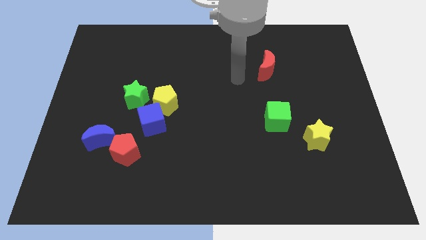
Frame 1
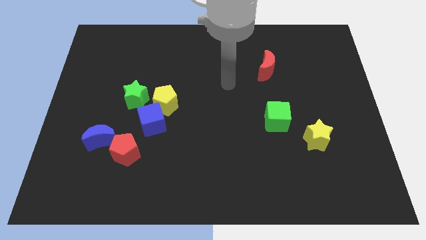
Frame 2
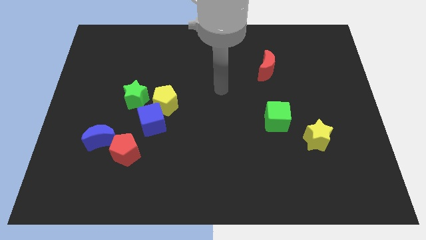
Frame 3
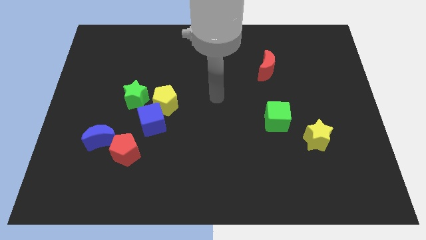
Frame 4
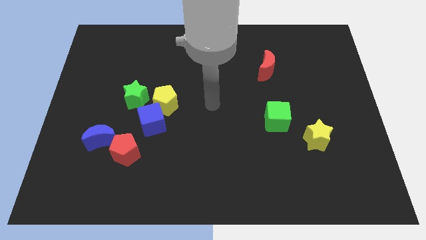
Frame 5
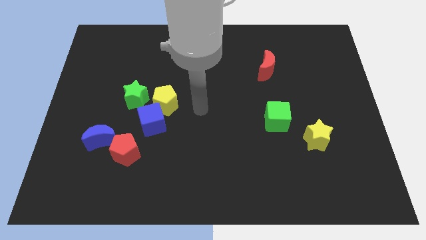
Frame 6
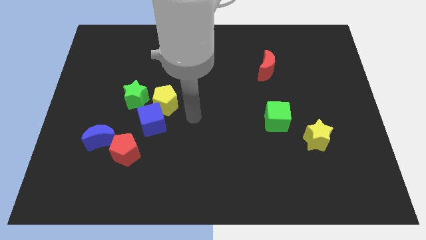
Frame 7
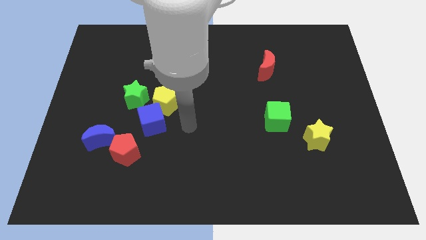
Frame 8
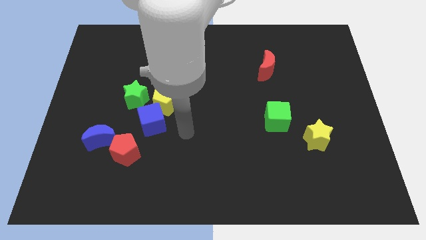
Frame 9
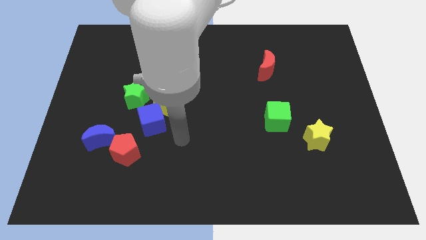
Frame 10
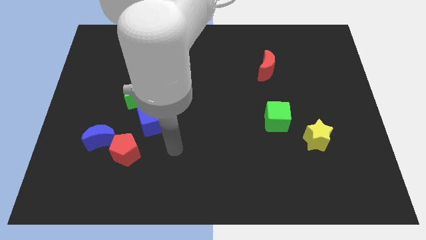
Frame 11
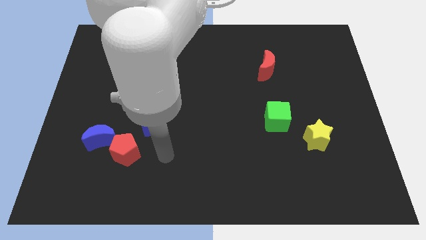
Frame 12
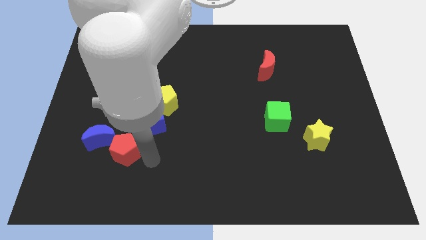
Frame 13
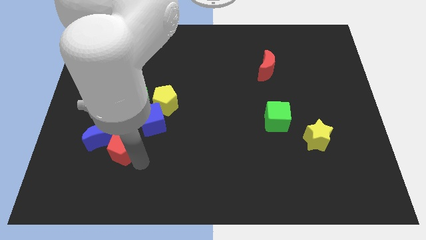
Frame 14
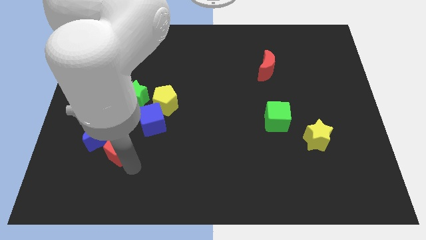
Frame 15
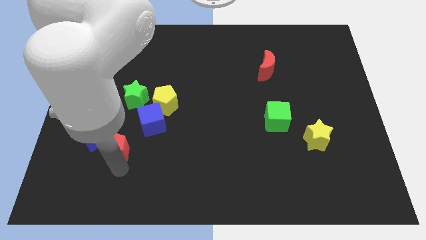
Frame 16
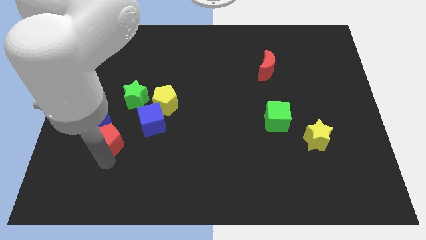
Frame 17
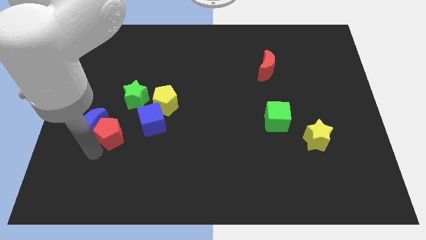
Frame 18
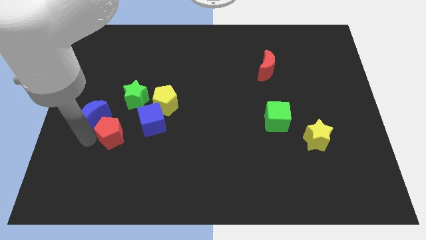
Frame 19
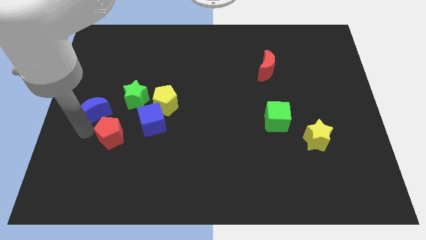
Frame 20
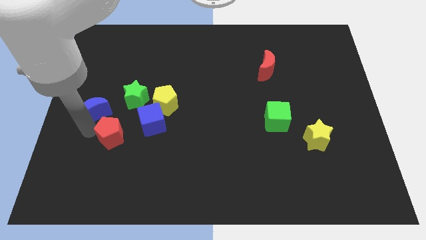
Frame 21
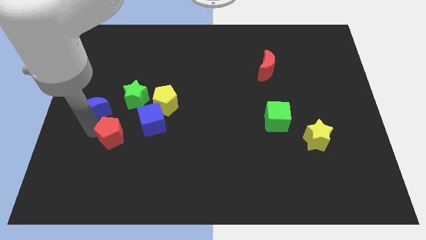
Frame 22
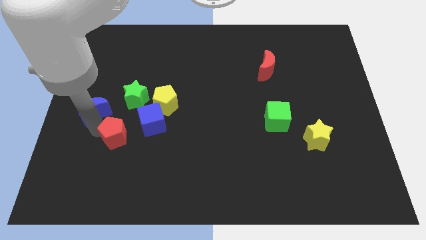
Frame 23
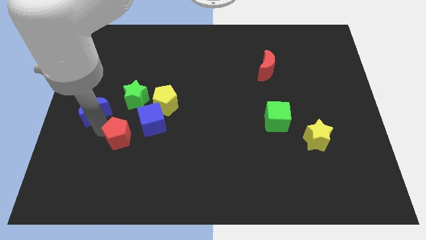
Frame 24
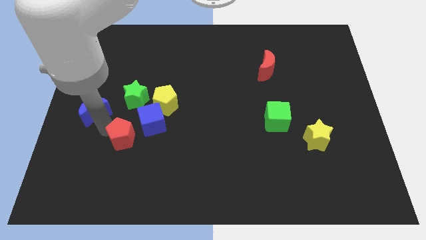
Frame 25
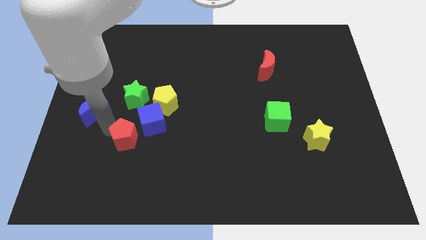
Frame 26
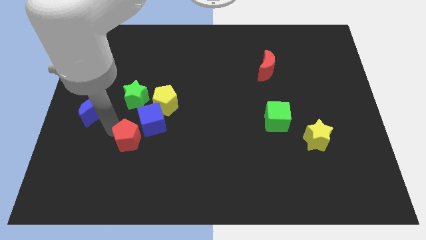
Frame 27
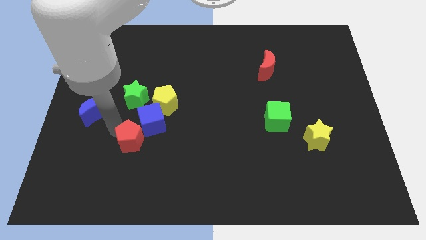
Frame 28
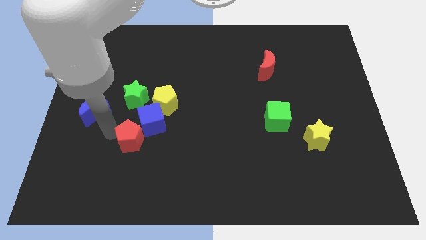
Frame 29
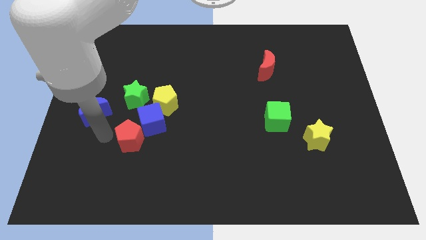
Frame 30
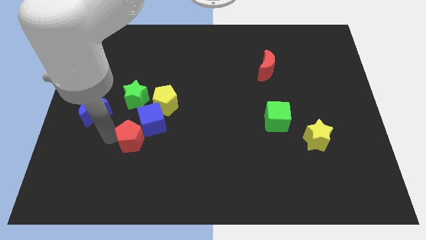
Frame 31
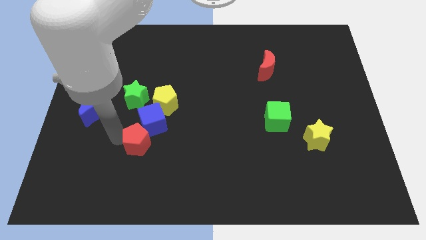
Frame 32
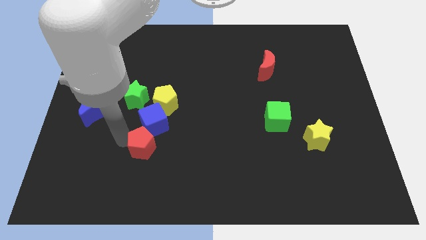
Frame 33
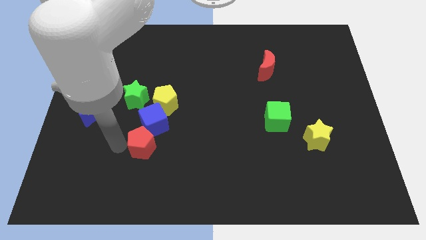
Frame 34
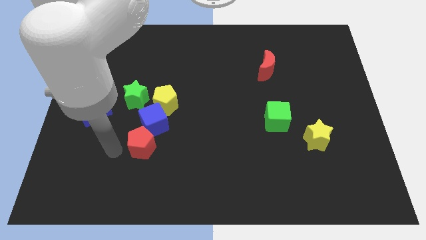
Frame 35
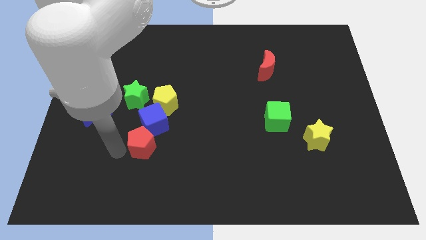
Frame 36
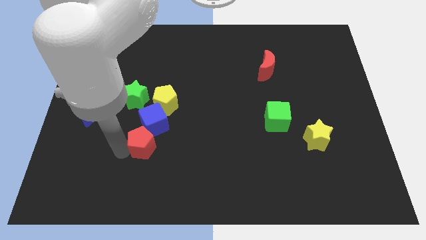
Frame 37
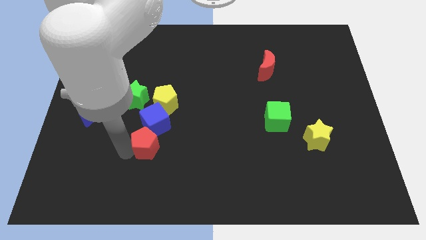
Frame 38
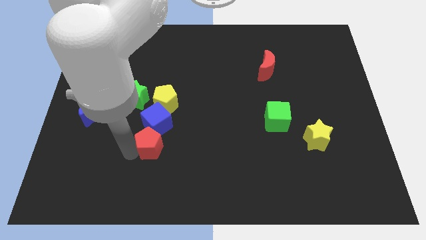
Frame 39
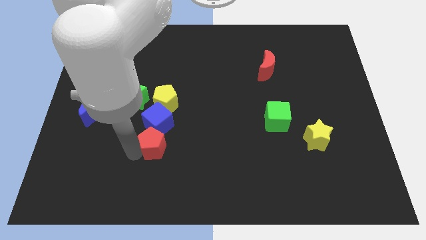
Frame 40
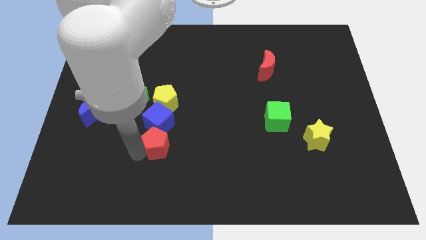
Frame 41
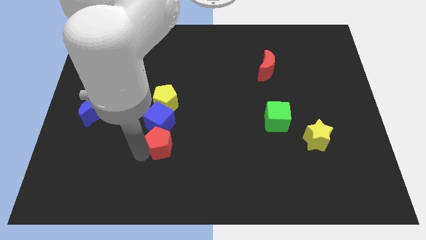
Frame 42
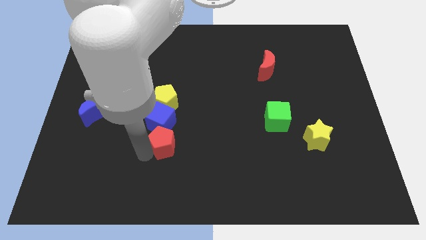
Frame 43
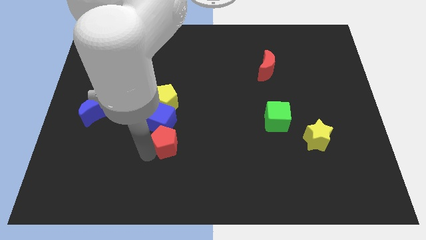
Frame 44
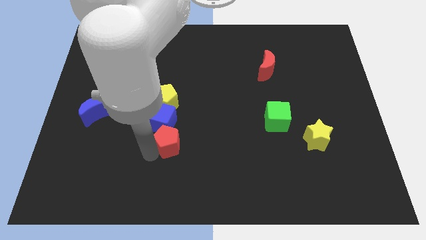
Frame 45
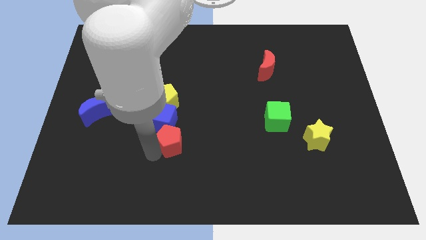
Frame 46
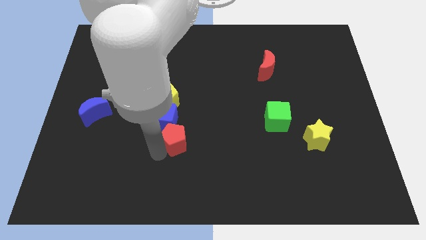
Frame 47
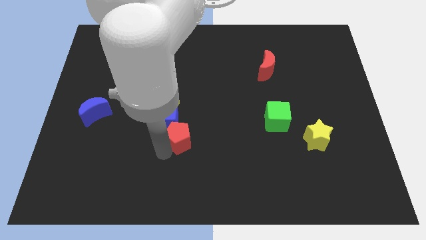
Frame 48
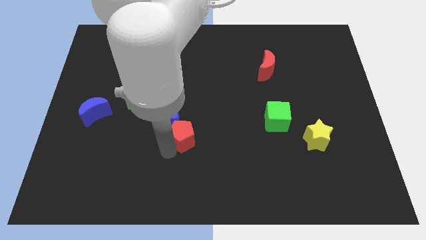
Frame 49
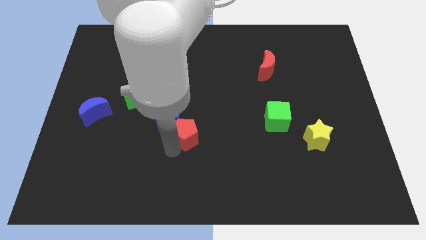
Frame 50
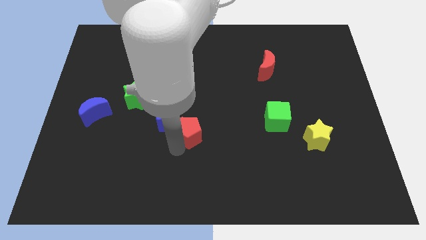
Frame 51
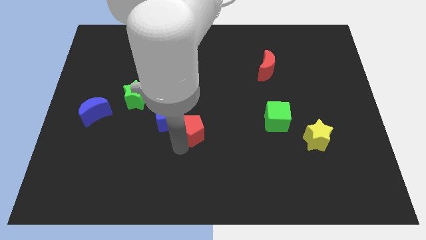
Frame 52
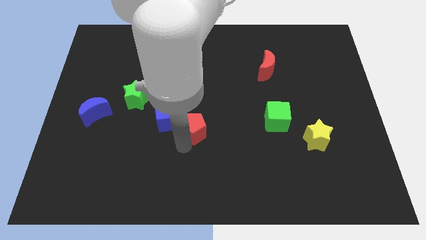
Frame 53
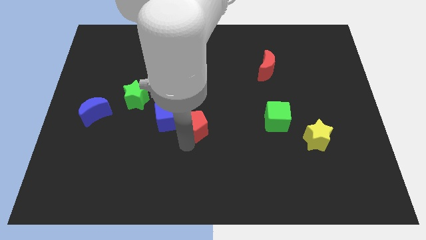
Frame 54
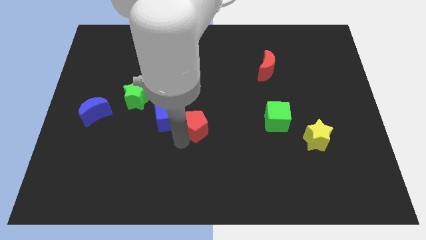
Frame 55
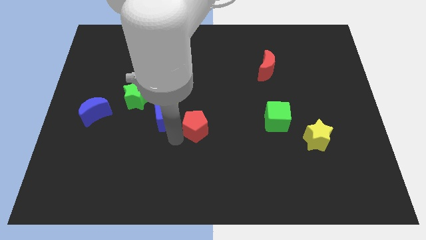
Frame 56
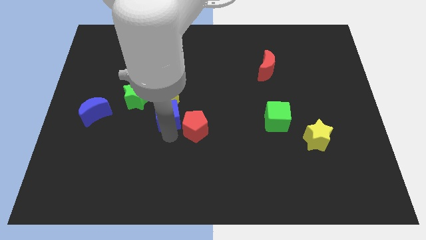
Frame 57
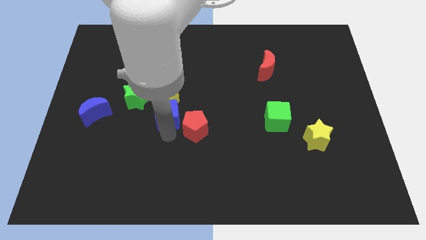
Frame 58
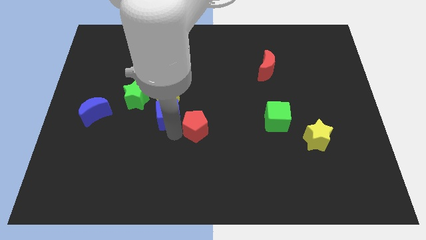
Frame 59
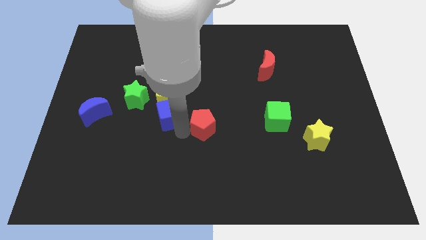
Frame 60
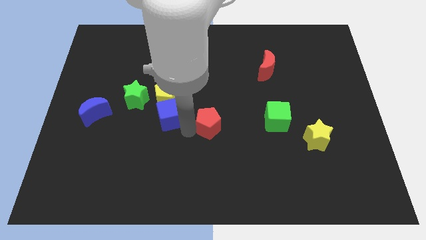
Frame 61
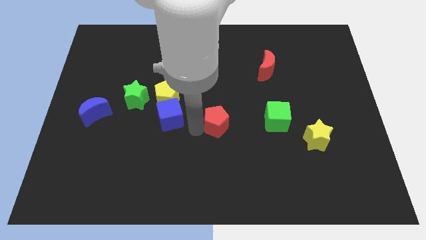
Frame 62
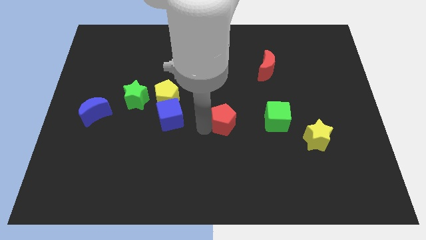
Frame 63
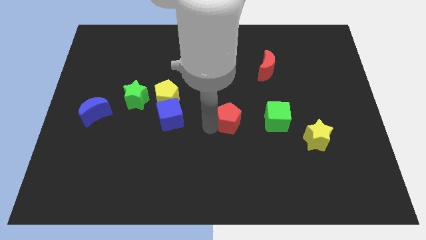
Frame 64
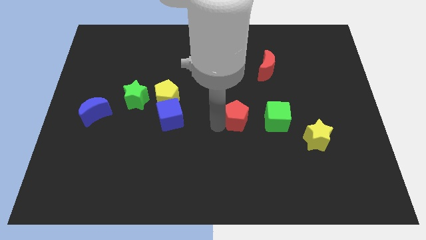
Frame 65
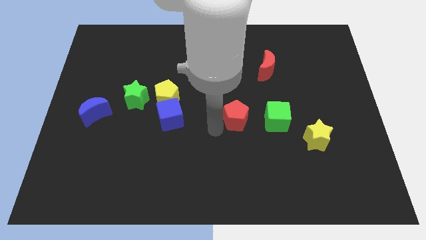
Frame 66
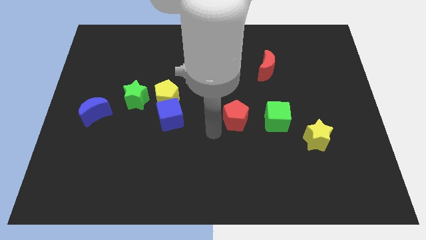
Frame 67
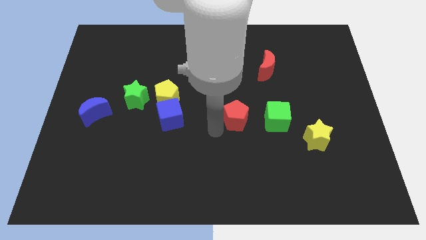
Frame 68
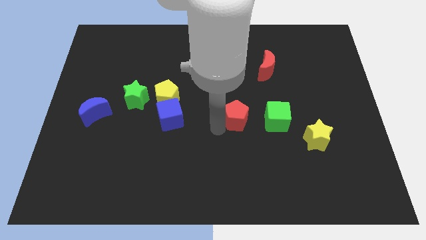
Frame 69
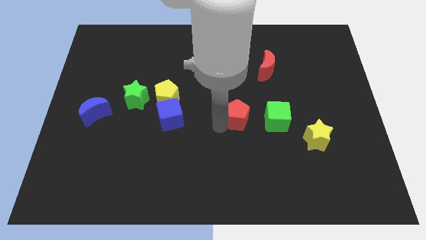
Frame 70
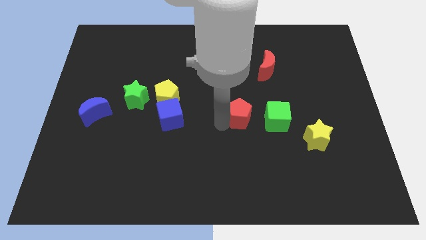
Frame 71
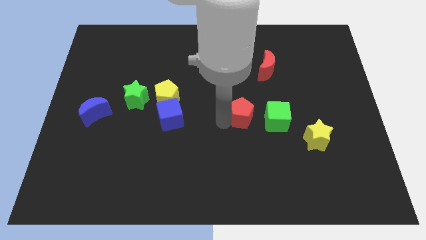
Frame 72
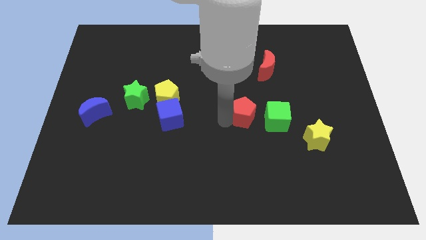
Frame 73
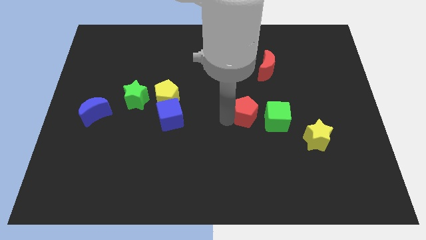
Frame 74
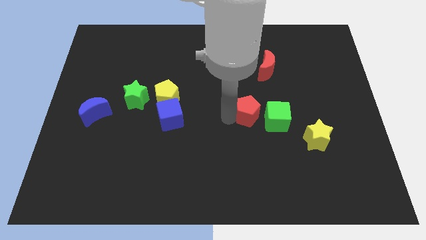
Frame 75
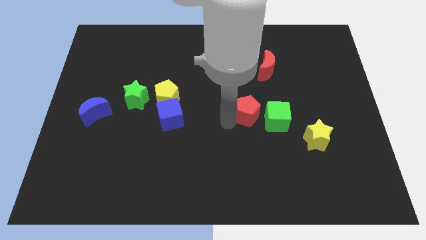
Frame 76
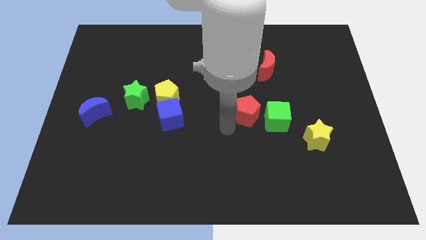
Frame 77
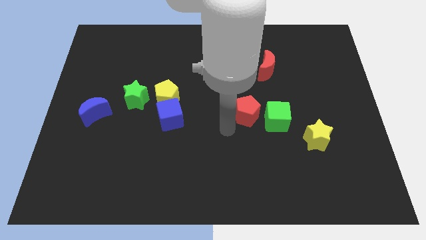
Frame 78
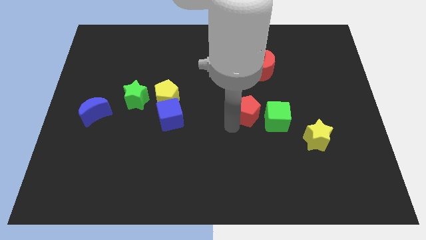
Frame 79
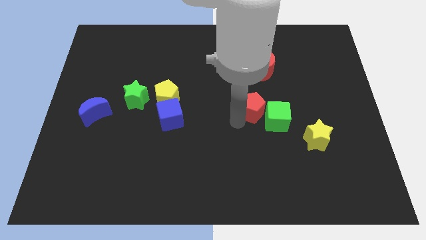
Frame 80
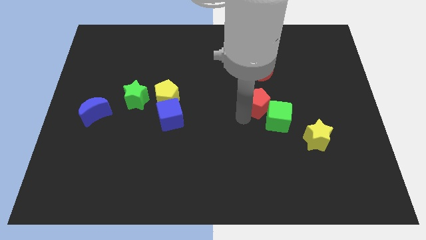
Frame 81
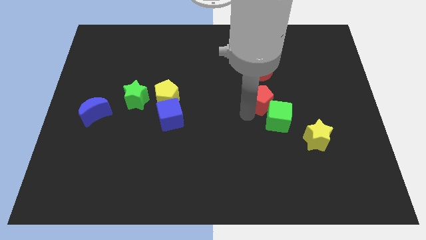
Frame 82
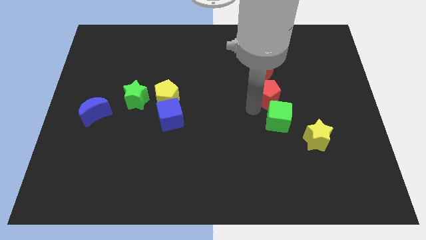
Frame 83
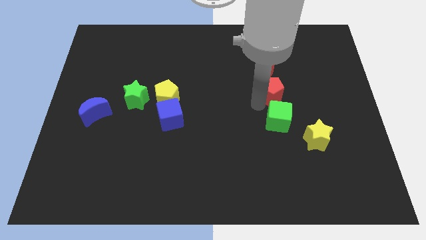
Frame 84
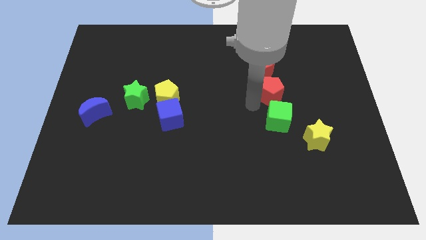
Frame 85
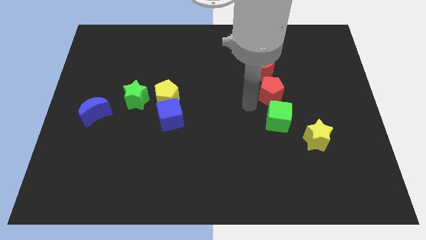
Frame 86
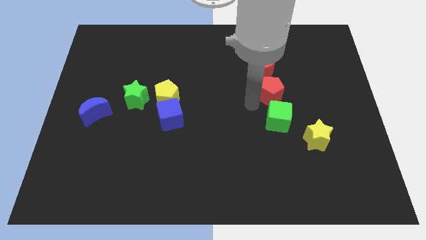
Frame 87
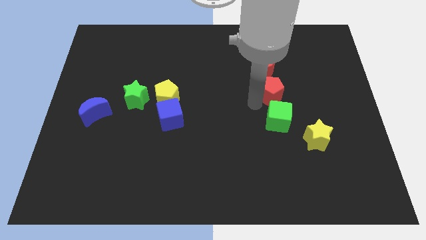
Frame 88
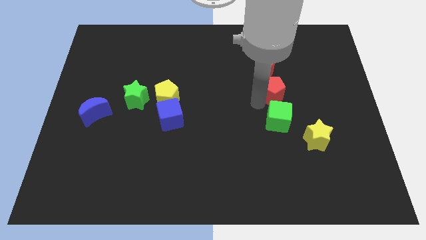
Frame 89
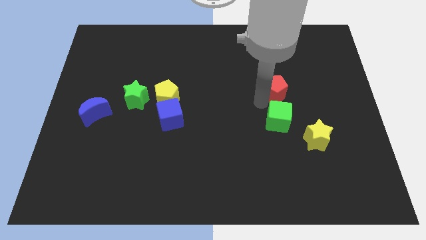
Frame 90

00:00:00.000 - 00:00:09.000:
slide the red pentagon to the bottom right of the red moon
